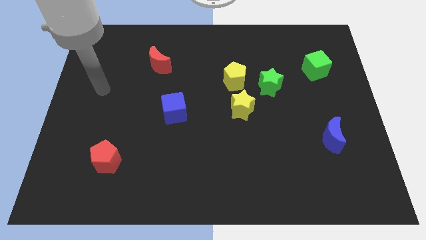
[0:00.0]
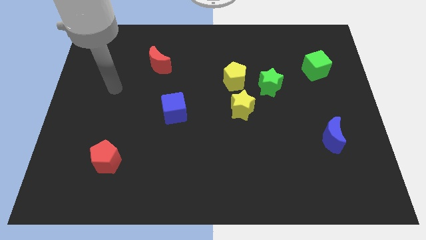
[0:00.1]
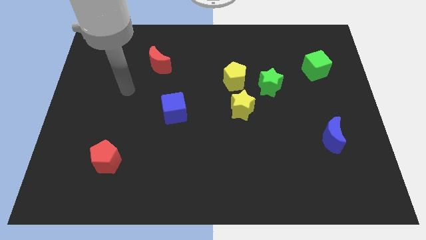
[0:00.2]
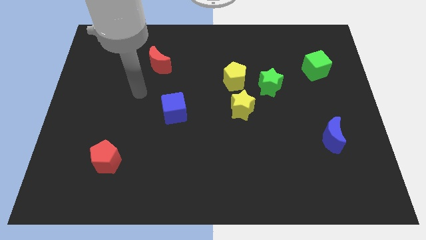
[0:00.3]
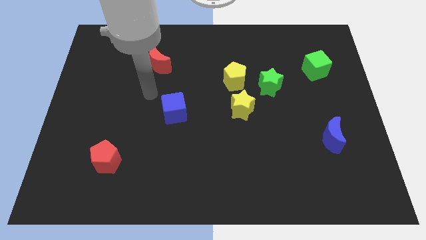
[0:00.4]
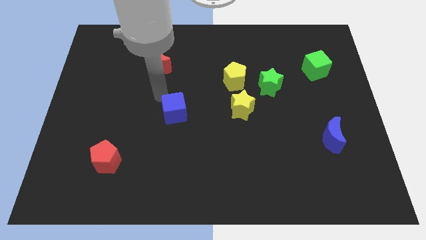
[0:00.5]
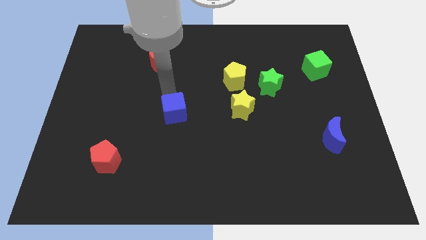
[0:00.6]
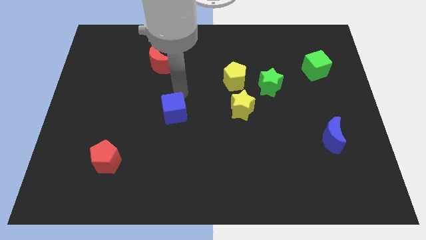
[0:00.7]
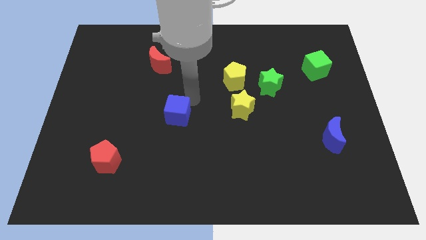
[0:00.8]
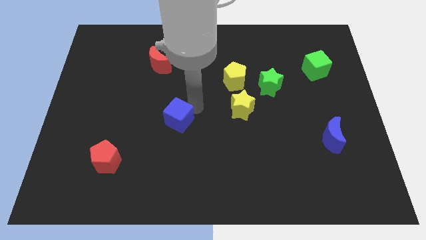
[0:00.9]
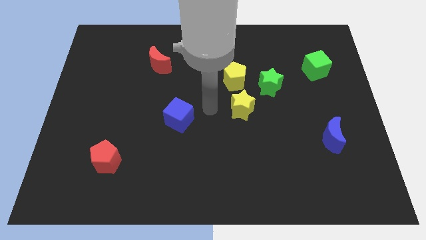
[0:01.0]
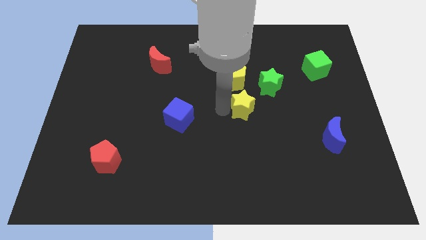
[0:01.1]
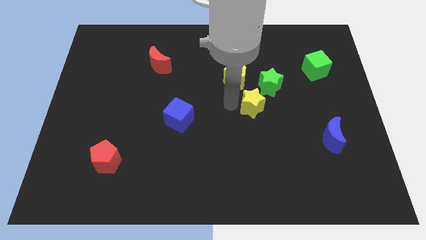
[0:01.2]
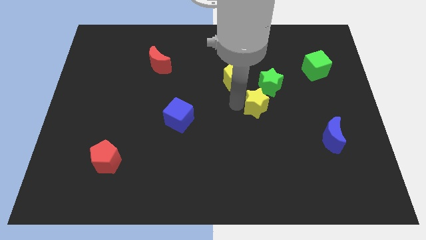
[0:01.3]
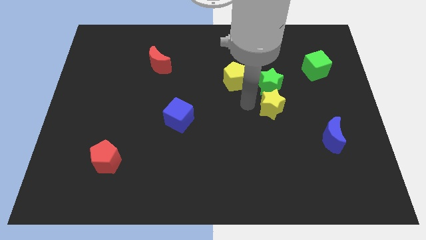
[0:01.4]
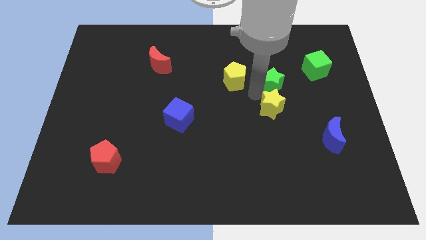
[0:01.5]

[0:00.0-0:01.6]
pull the yellow pentagon apart from the green star and yellow star

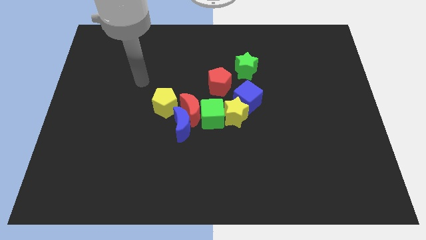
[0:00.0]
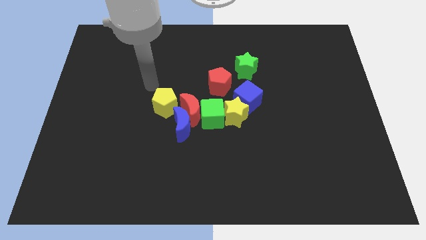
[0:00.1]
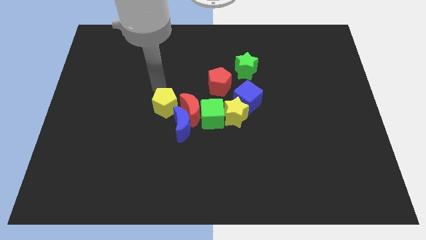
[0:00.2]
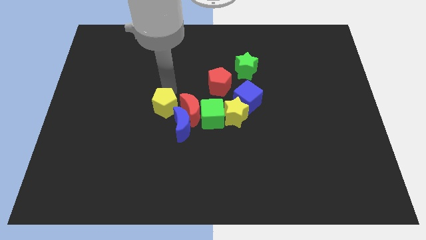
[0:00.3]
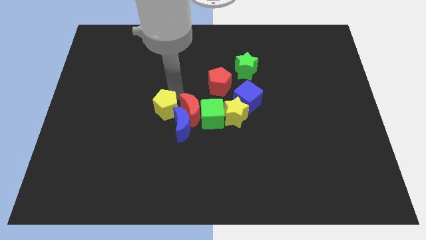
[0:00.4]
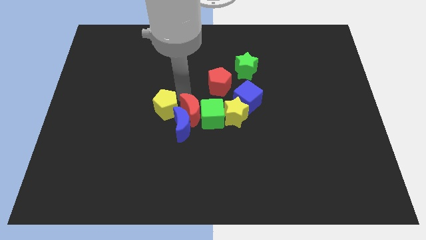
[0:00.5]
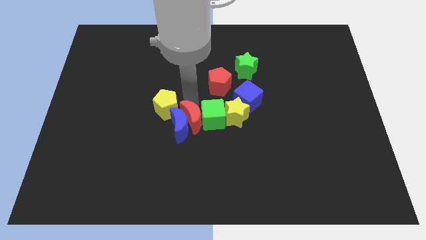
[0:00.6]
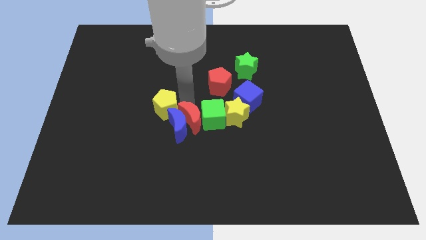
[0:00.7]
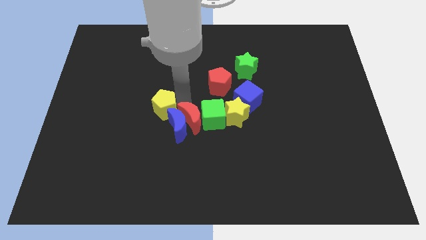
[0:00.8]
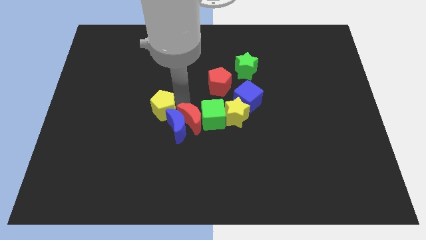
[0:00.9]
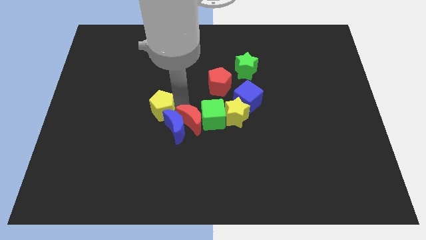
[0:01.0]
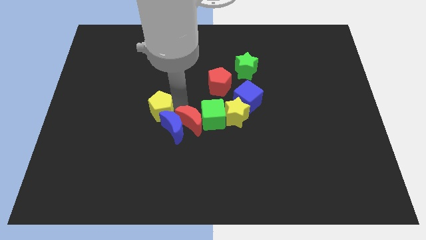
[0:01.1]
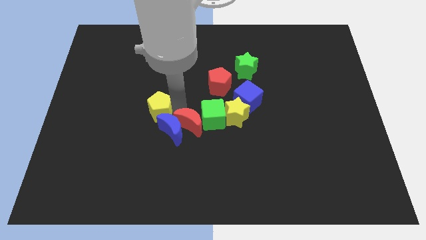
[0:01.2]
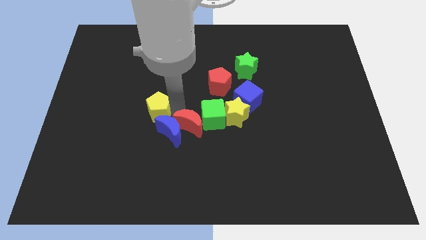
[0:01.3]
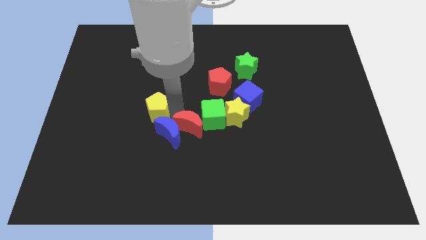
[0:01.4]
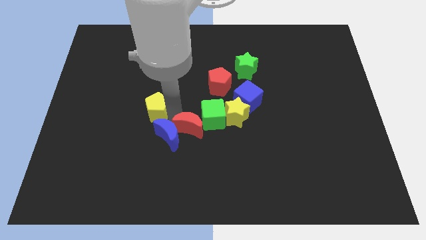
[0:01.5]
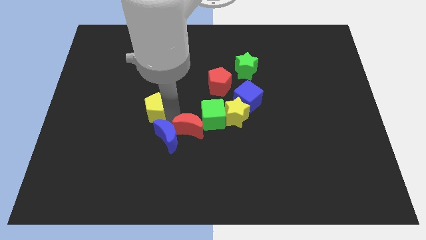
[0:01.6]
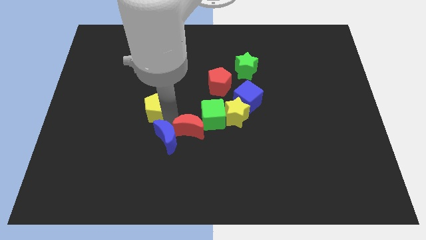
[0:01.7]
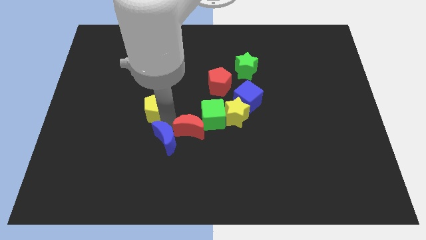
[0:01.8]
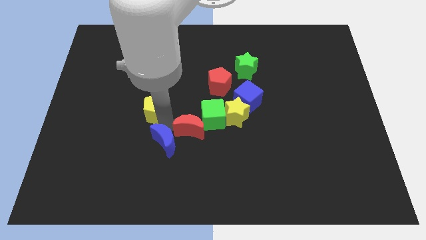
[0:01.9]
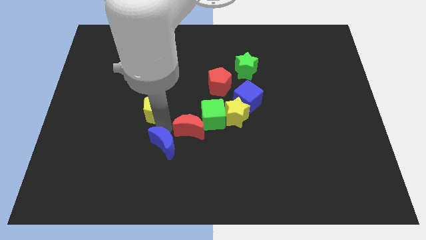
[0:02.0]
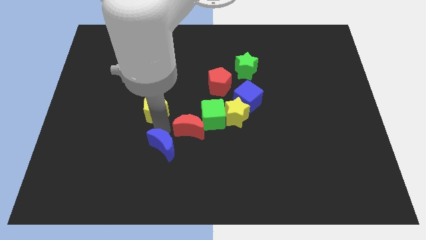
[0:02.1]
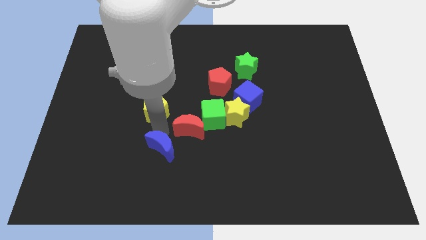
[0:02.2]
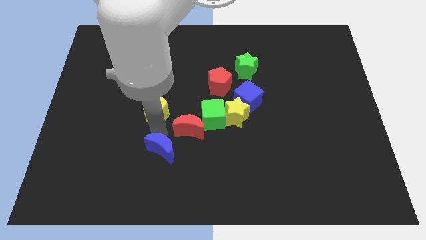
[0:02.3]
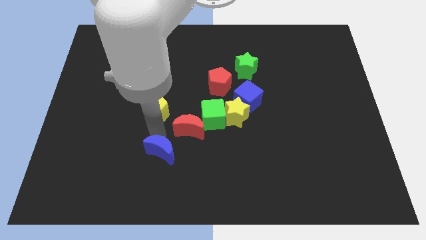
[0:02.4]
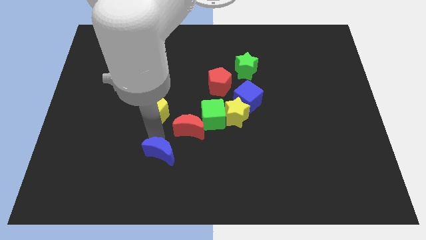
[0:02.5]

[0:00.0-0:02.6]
separate the blue moon from the red moon, green cube, and yellow pentagon

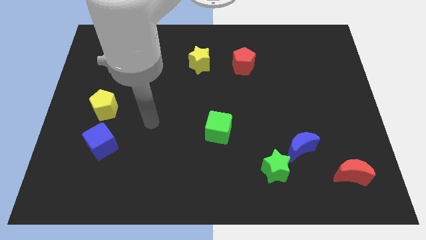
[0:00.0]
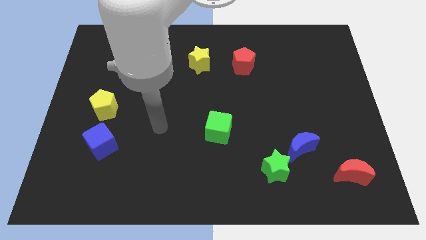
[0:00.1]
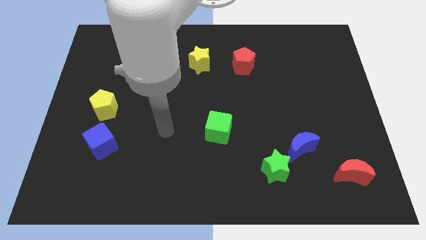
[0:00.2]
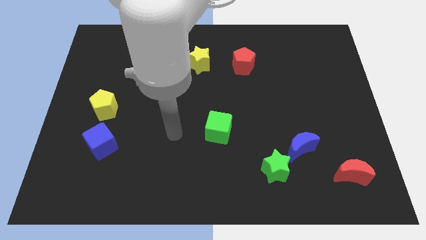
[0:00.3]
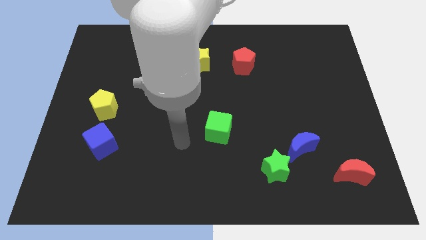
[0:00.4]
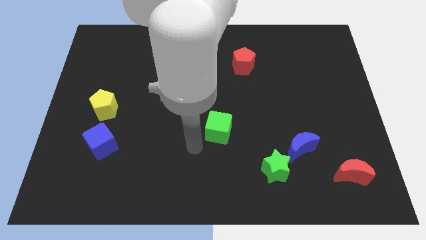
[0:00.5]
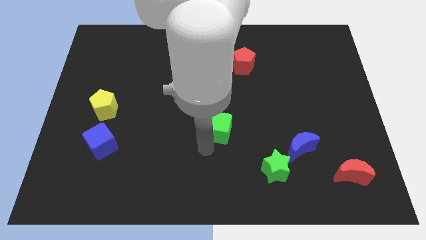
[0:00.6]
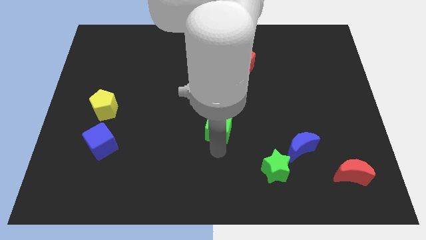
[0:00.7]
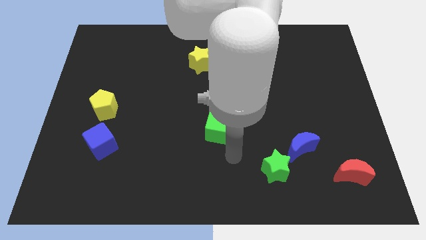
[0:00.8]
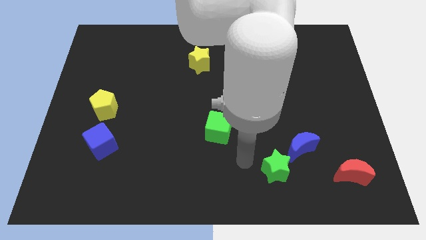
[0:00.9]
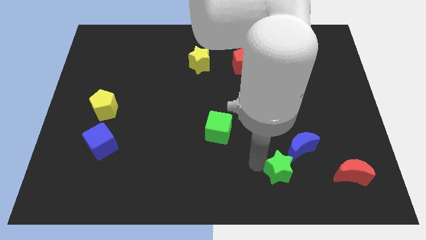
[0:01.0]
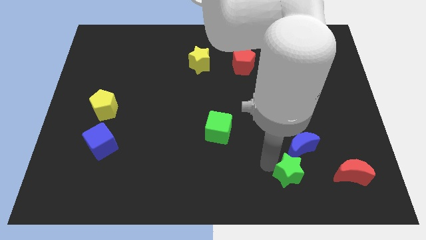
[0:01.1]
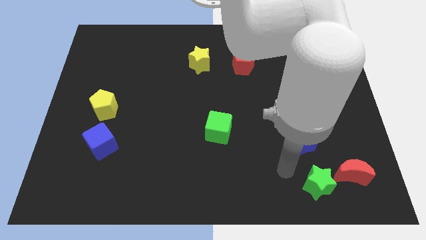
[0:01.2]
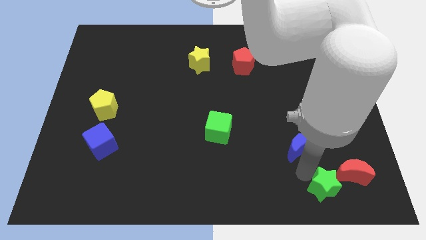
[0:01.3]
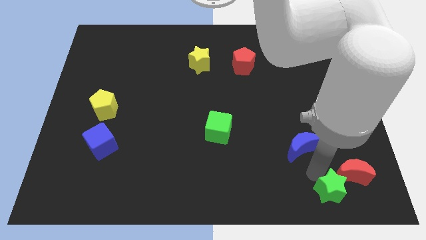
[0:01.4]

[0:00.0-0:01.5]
pull the blue moon apart from the green star

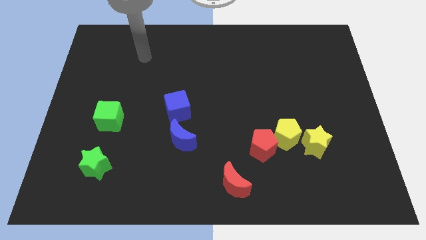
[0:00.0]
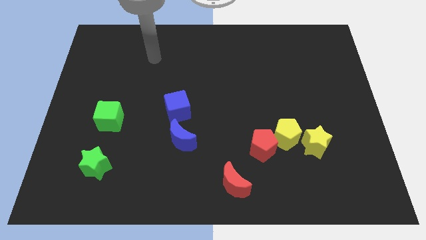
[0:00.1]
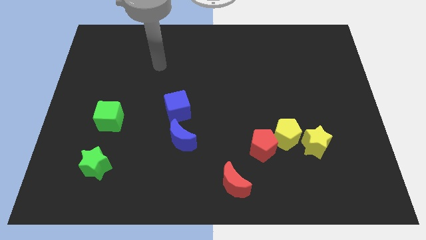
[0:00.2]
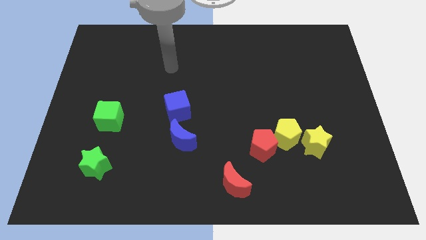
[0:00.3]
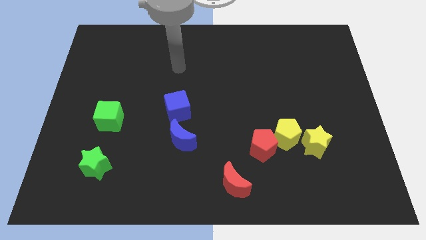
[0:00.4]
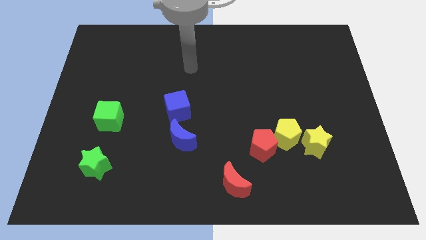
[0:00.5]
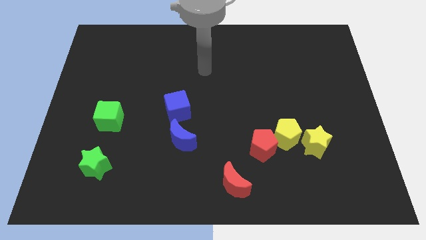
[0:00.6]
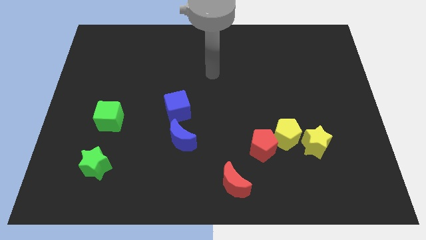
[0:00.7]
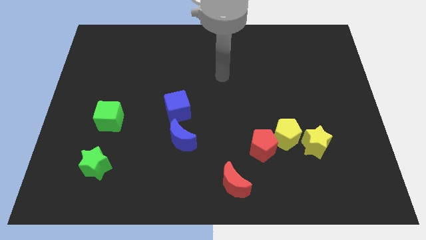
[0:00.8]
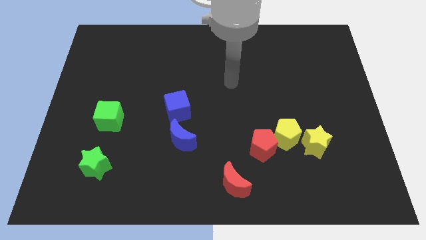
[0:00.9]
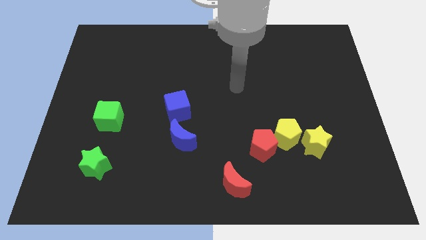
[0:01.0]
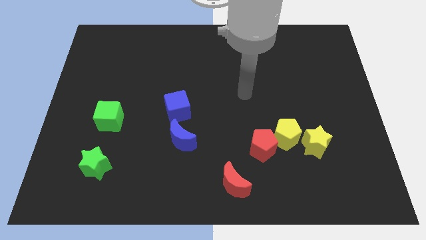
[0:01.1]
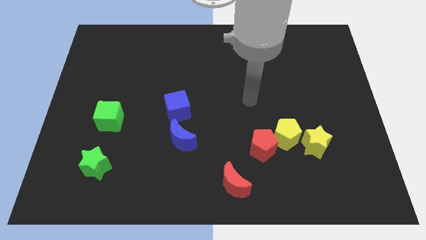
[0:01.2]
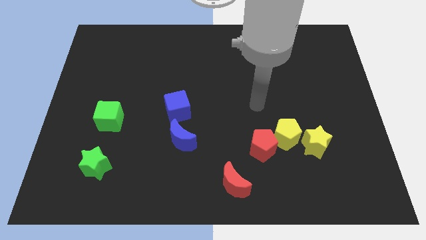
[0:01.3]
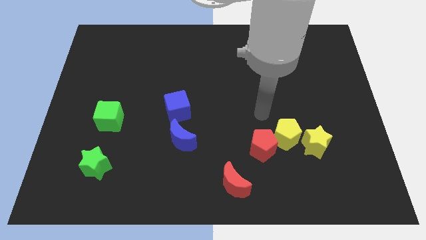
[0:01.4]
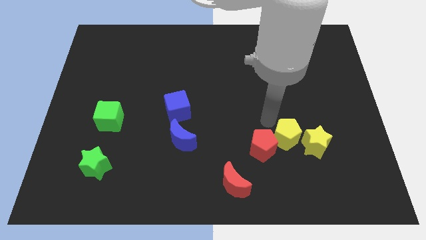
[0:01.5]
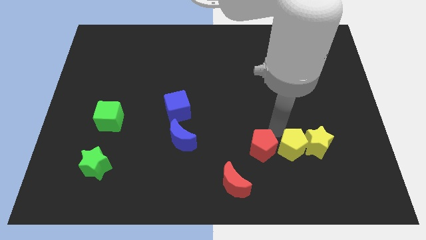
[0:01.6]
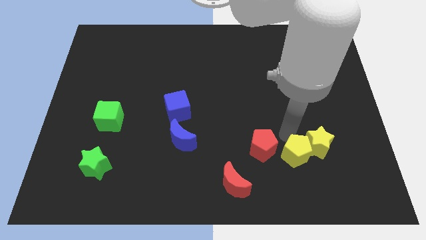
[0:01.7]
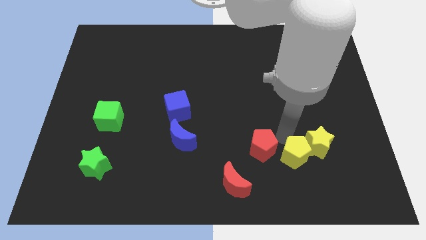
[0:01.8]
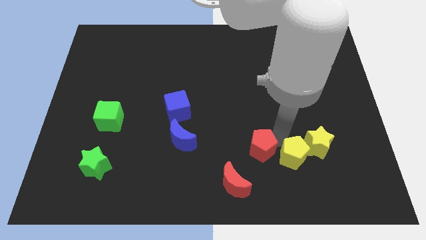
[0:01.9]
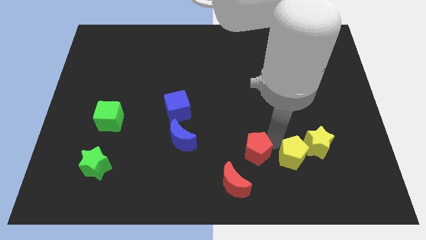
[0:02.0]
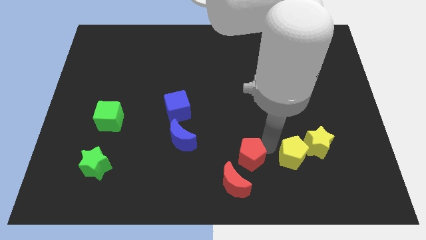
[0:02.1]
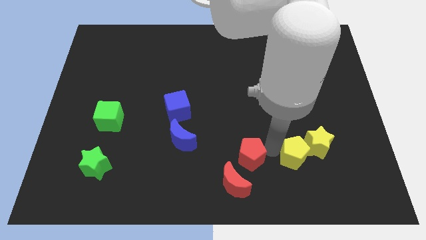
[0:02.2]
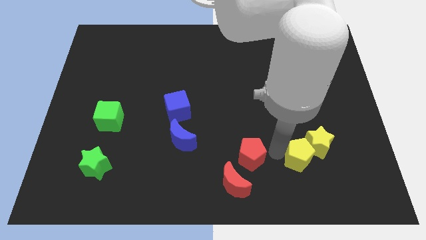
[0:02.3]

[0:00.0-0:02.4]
separate the red pentagon from the yellow pentagon

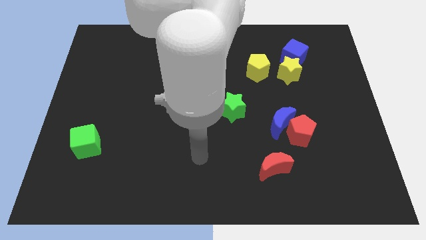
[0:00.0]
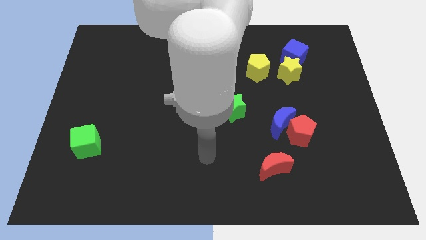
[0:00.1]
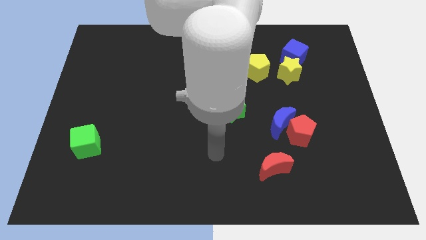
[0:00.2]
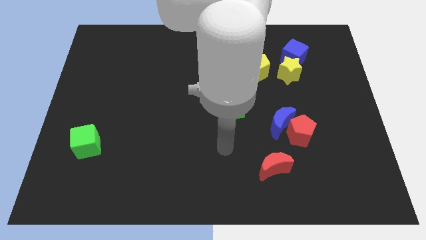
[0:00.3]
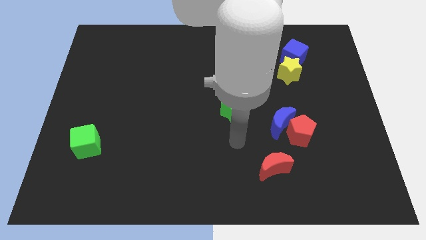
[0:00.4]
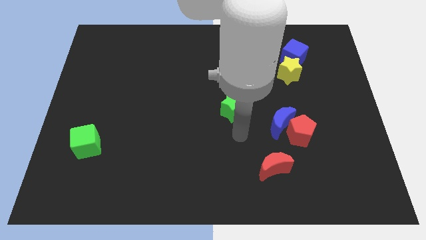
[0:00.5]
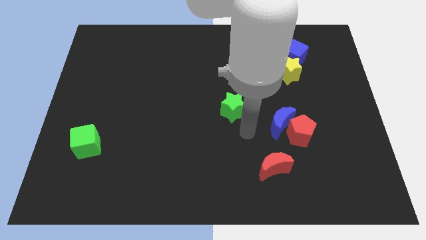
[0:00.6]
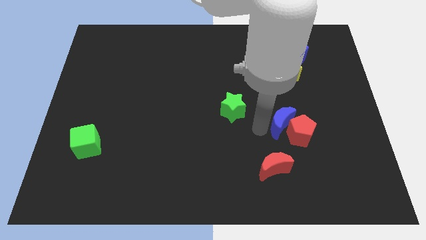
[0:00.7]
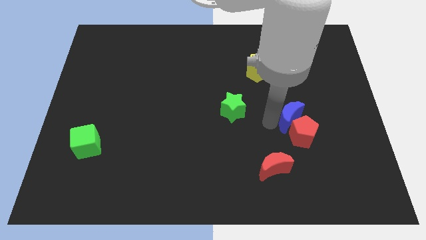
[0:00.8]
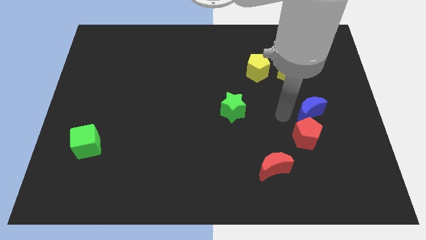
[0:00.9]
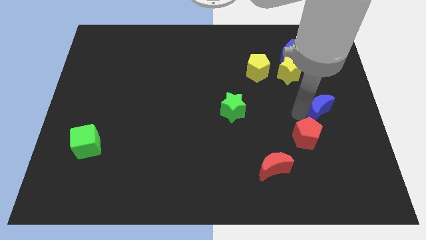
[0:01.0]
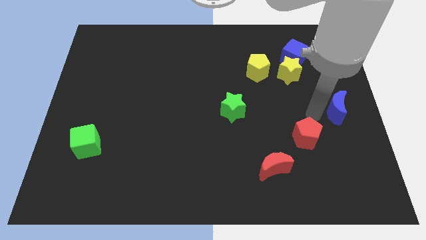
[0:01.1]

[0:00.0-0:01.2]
pull the red pentagon apart from the blue moon
